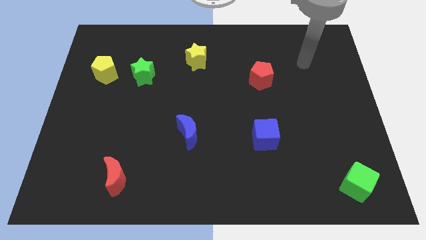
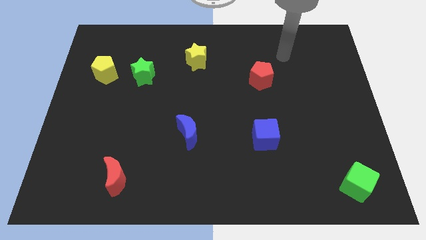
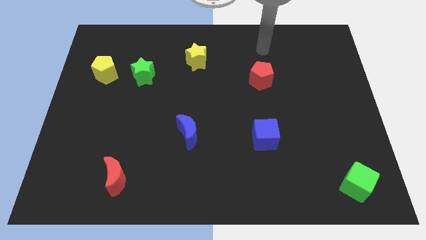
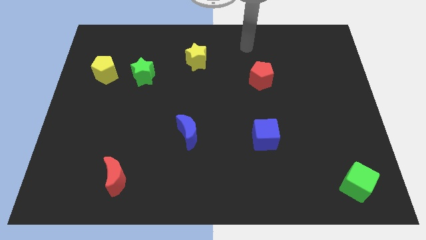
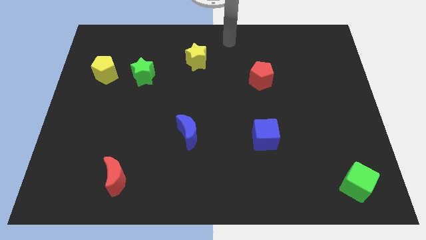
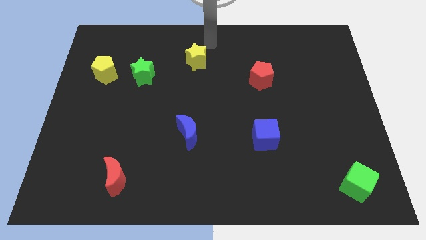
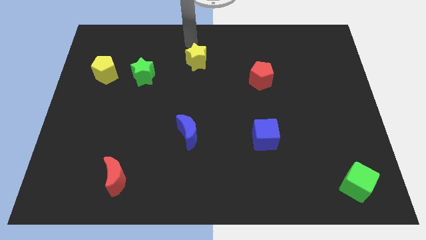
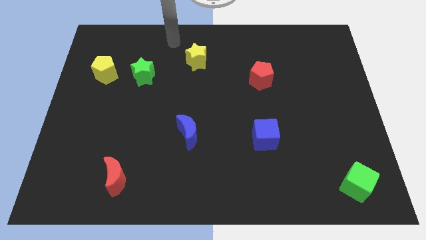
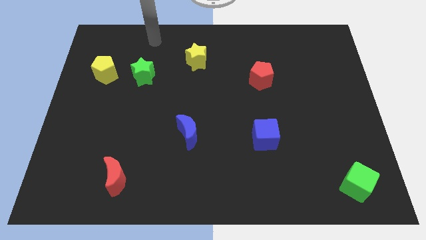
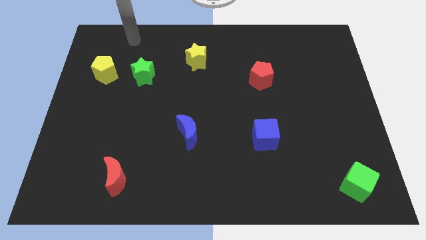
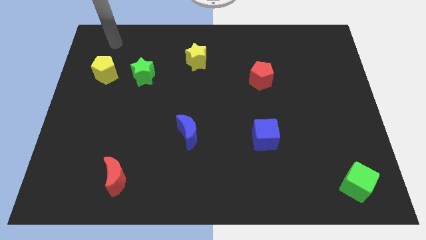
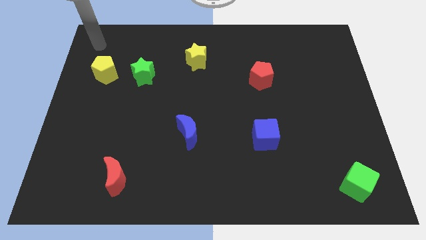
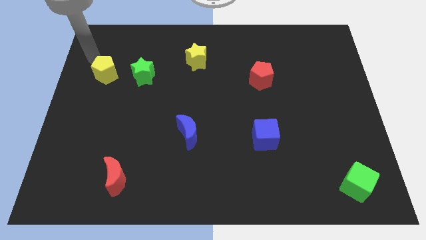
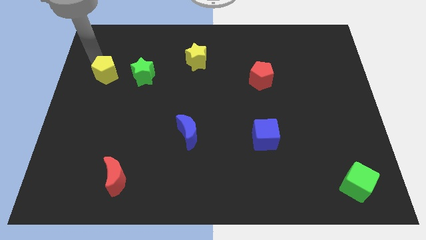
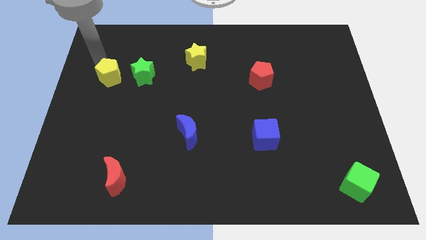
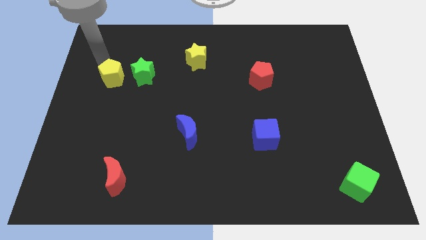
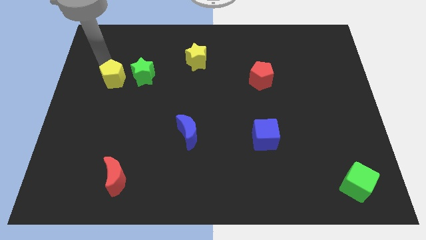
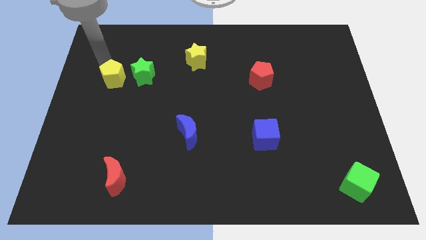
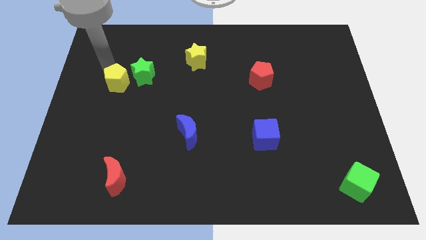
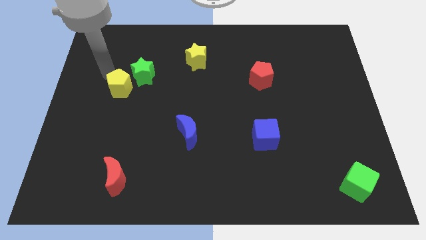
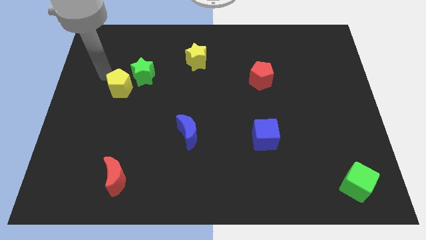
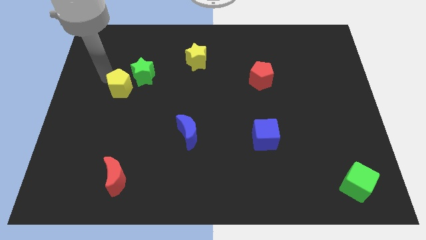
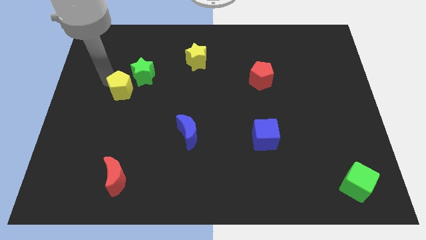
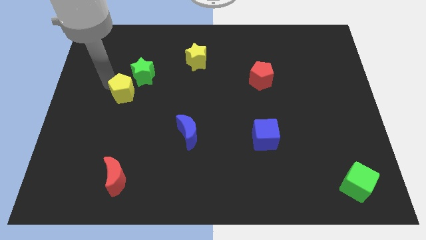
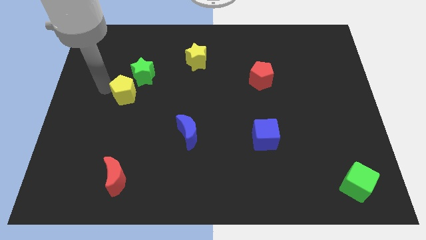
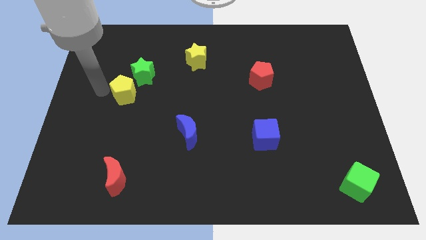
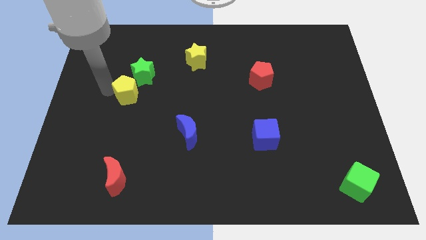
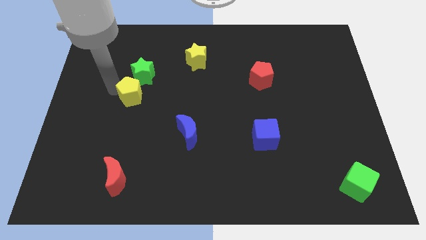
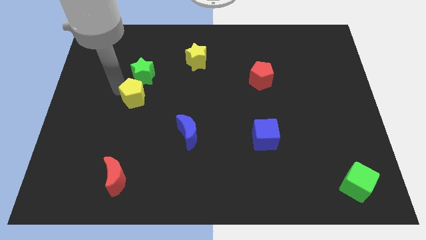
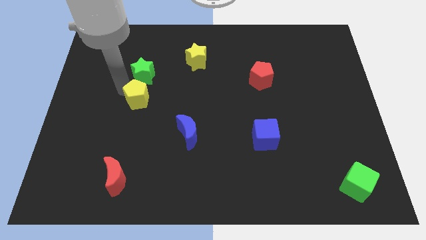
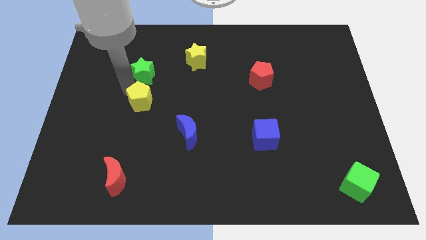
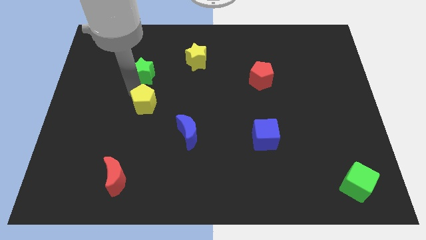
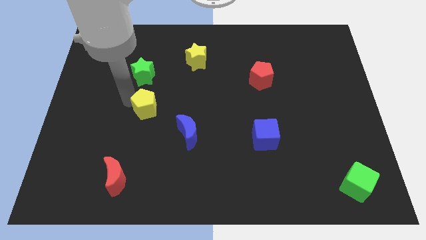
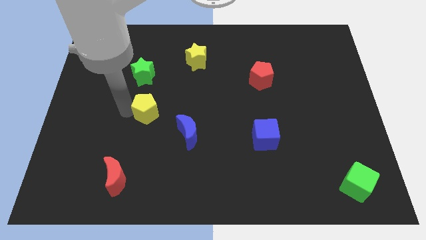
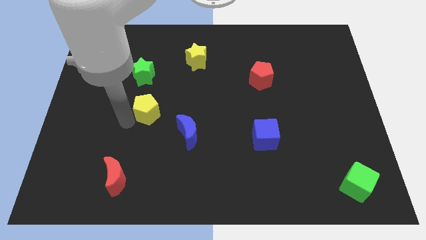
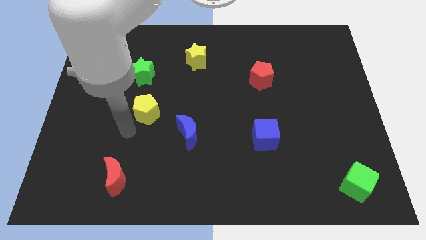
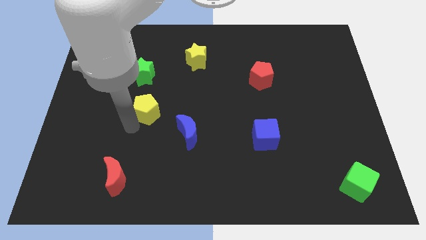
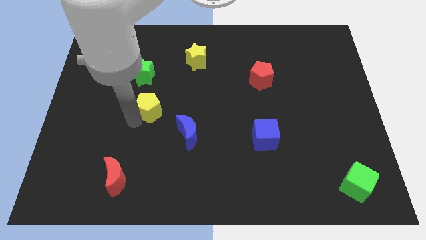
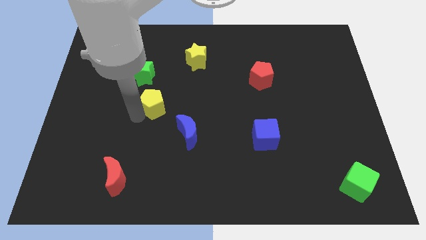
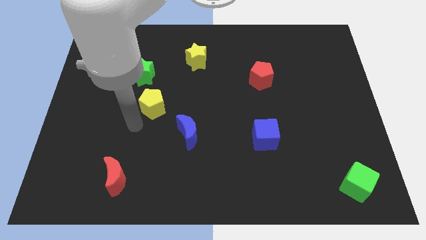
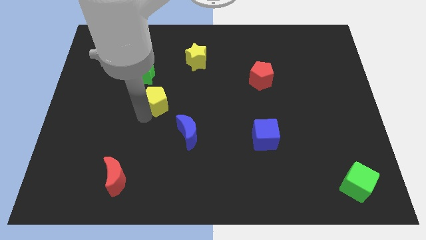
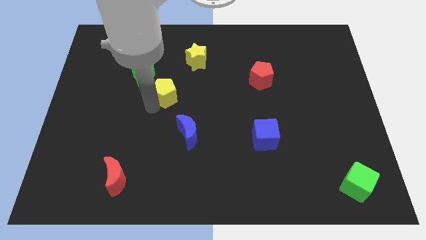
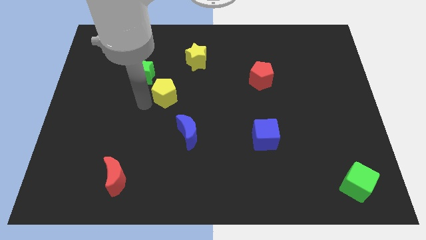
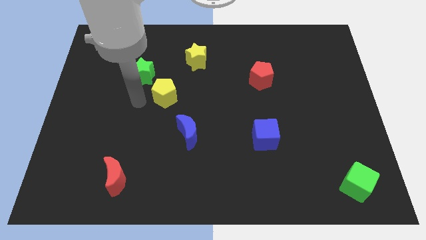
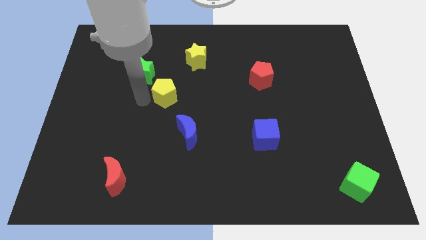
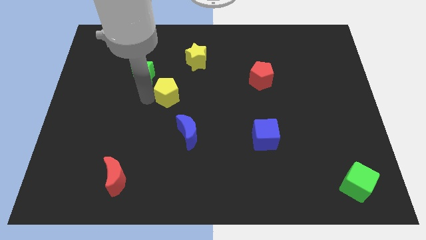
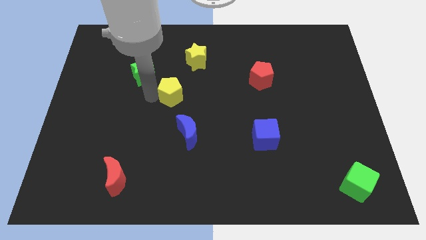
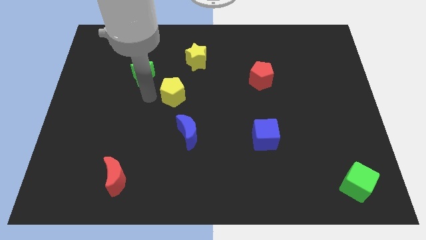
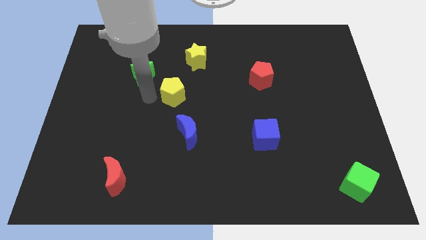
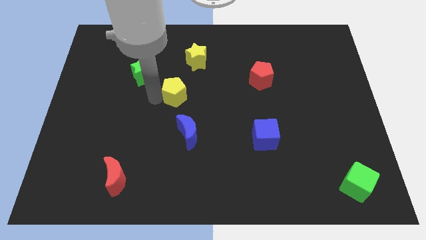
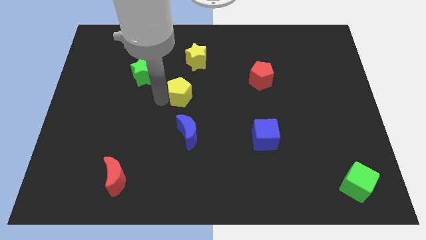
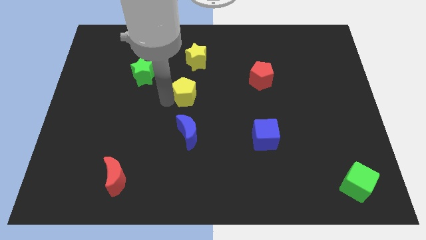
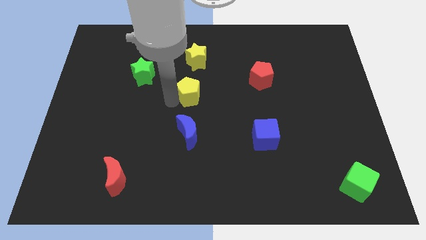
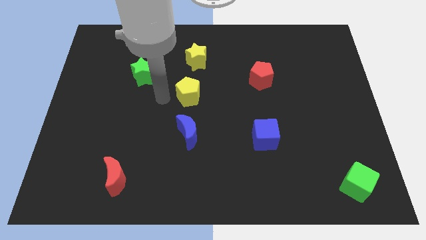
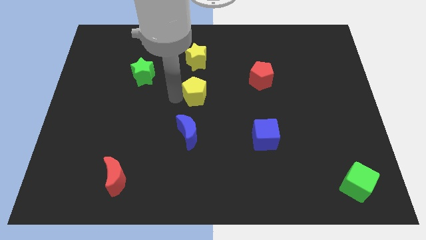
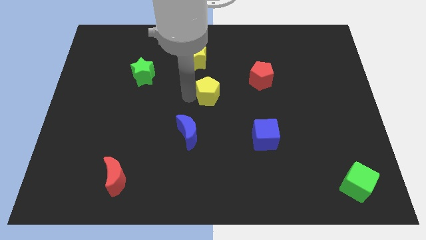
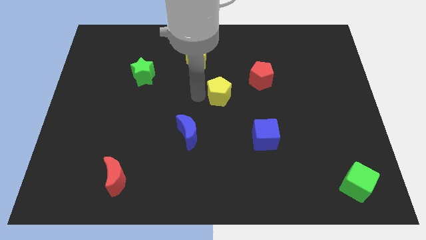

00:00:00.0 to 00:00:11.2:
push the yellow pentagon to the bottom left side of the red pentagon

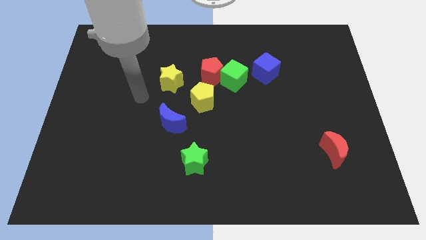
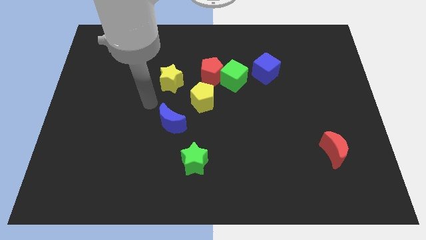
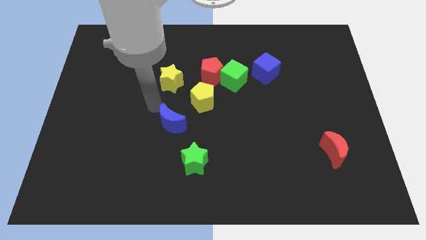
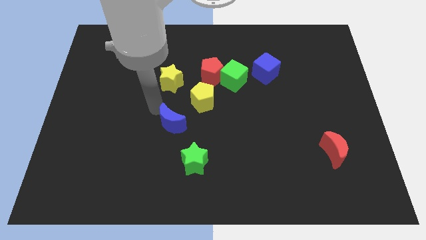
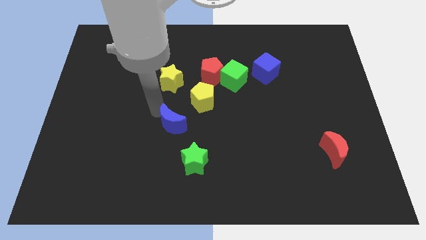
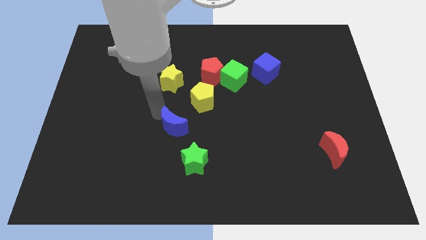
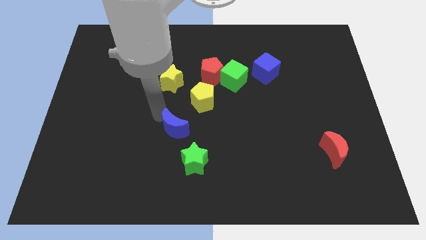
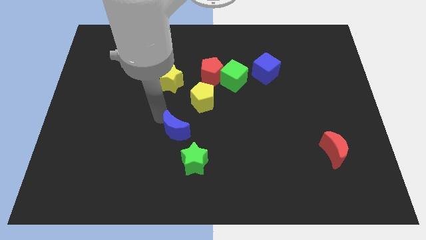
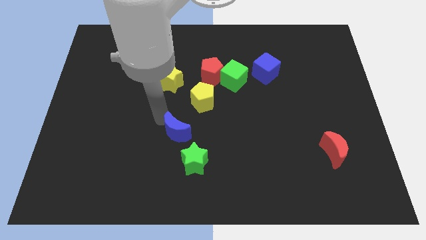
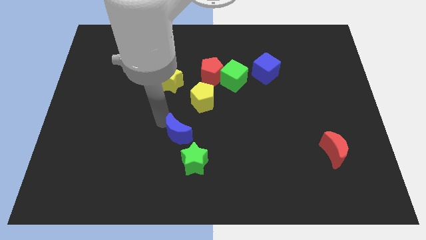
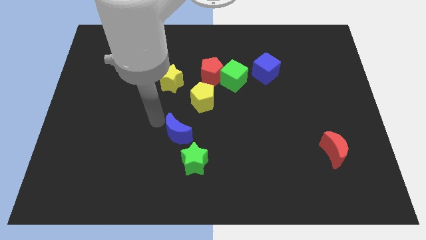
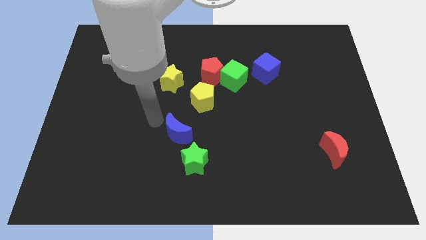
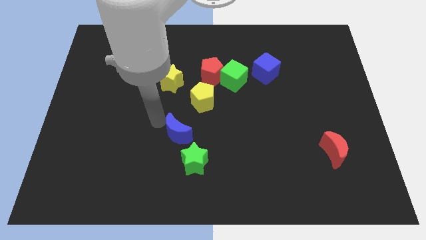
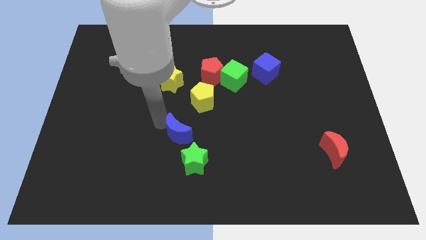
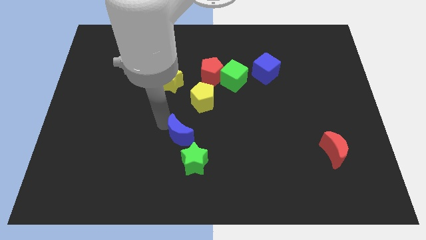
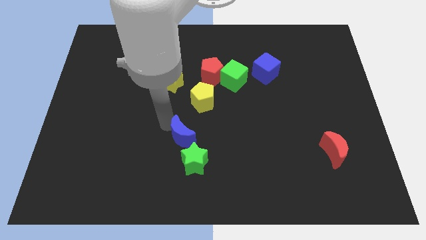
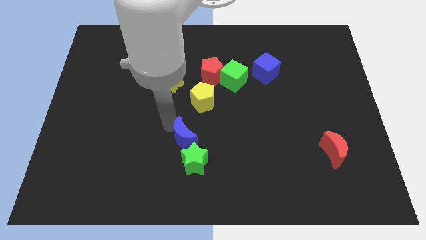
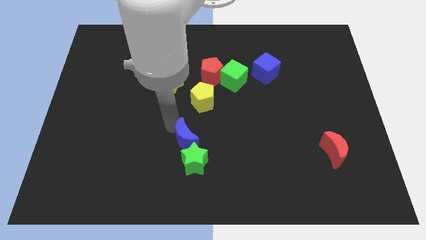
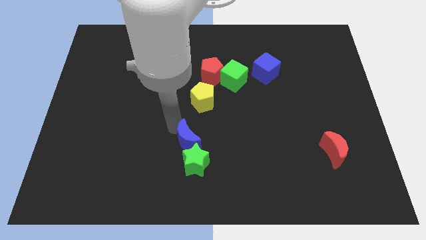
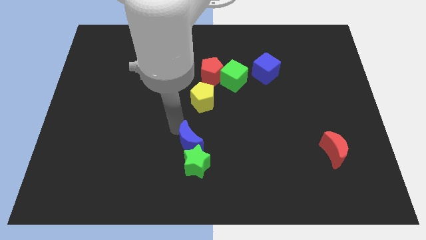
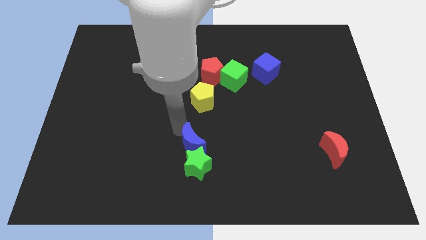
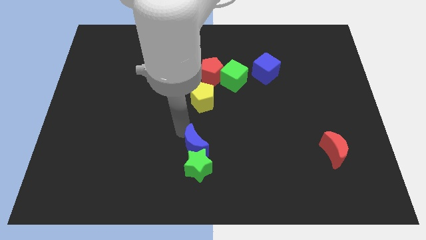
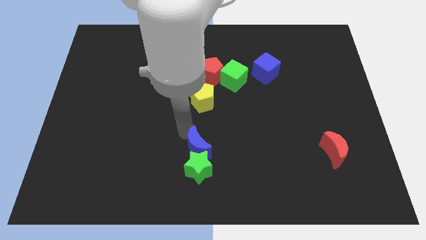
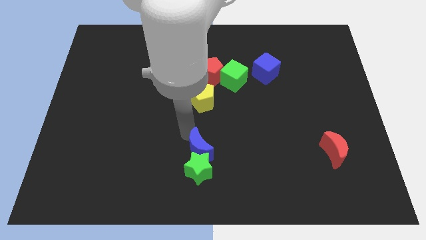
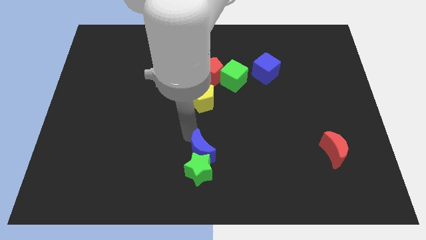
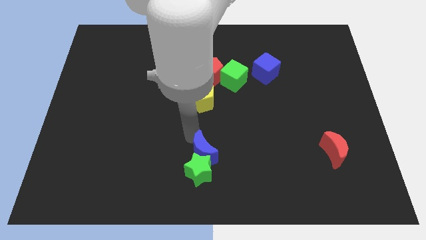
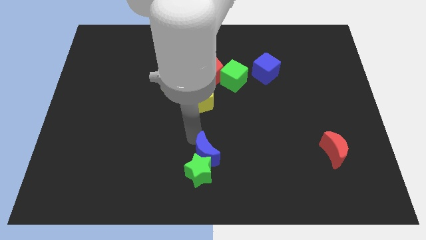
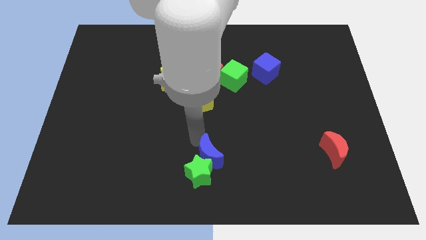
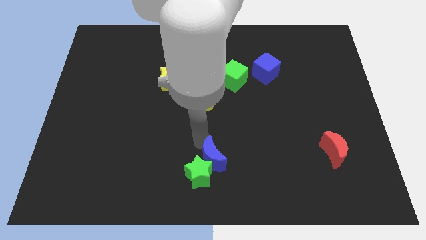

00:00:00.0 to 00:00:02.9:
move the blue moon to the right of the green star
